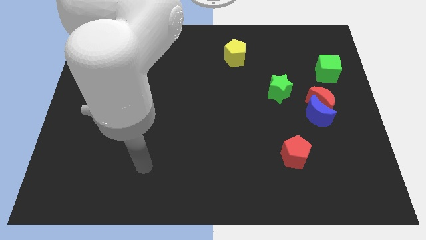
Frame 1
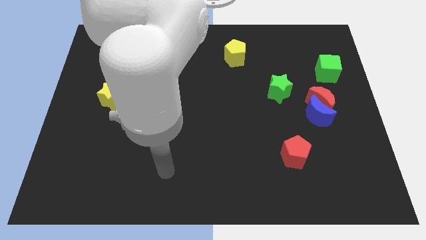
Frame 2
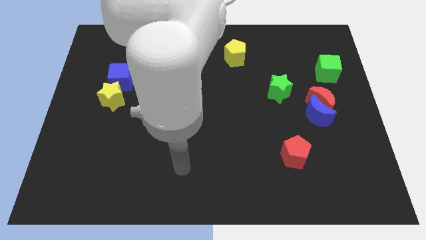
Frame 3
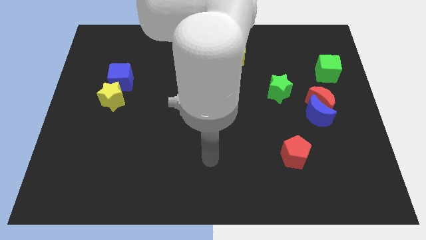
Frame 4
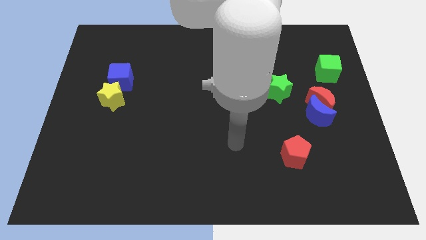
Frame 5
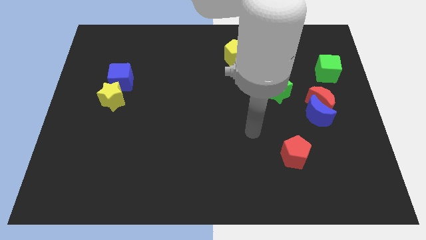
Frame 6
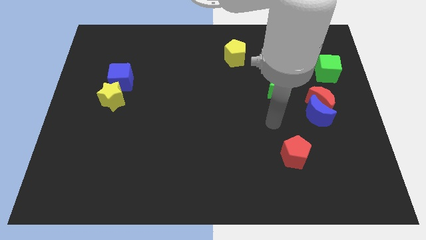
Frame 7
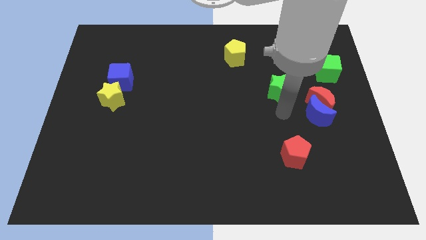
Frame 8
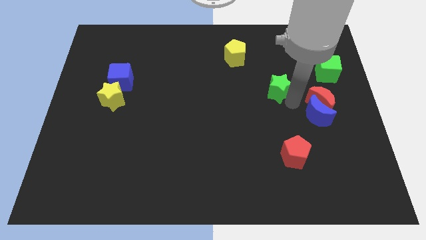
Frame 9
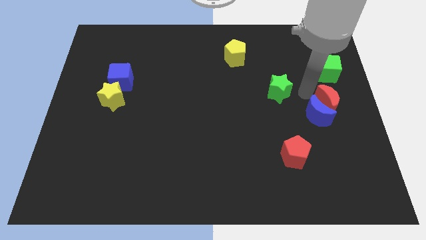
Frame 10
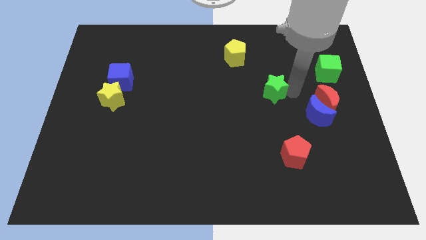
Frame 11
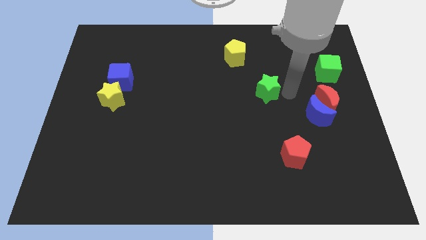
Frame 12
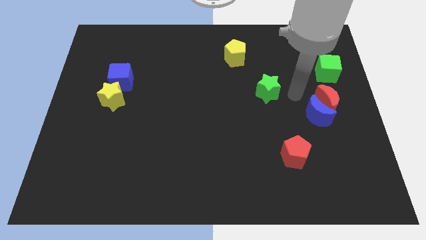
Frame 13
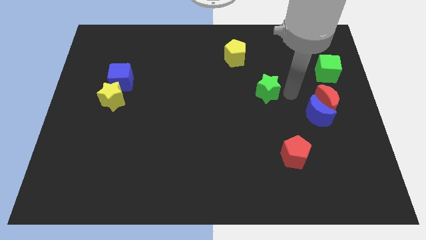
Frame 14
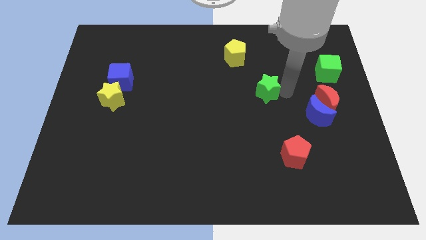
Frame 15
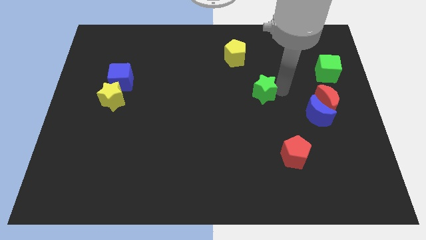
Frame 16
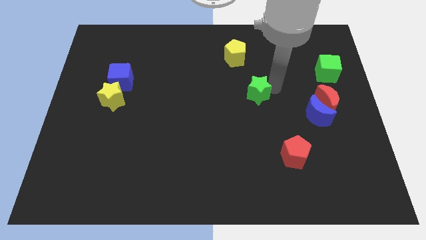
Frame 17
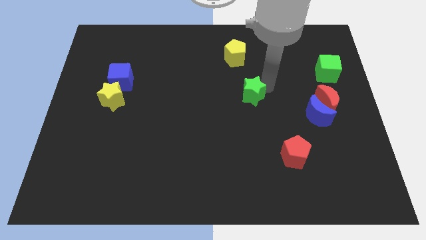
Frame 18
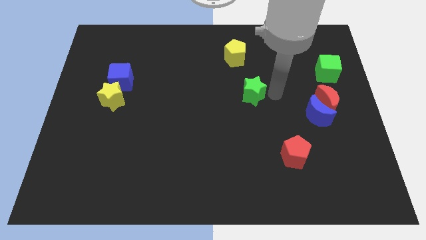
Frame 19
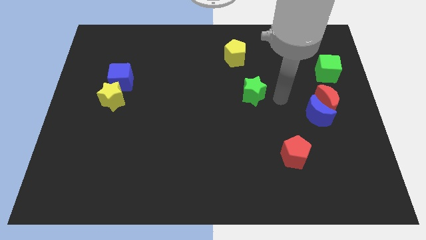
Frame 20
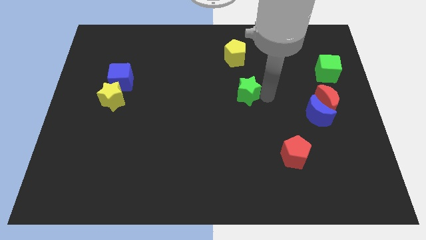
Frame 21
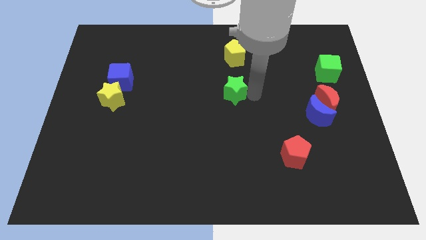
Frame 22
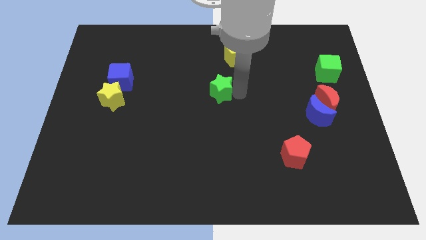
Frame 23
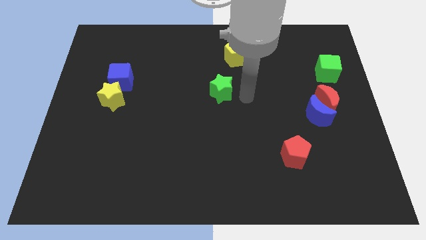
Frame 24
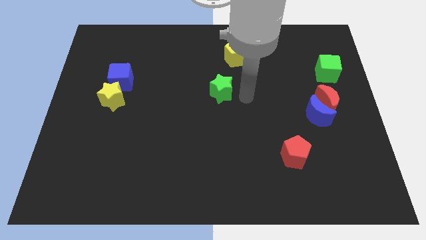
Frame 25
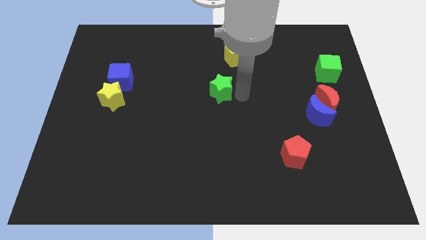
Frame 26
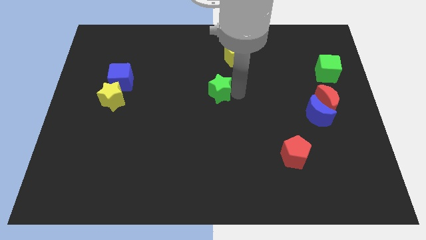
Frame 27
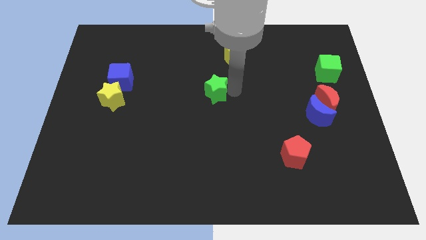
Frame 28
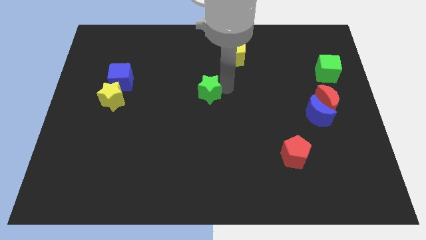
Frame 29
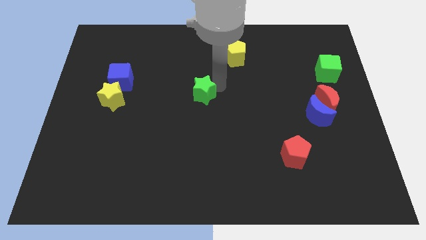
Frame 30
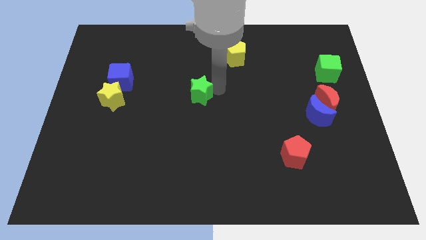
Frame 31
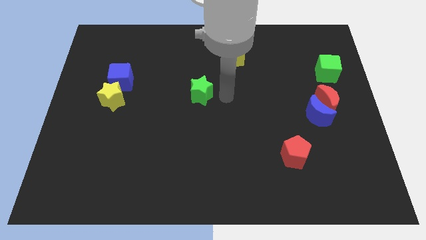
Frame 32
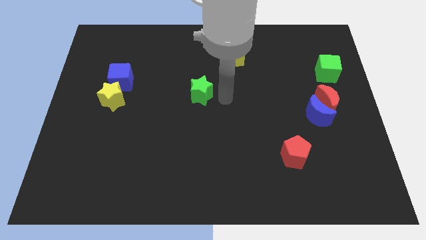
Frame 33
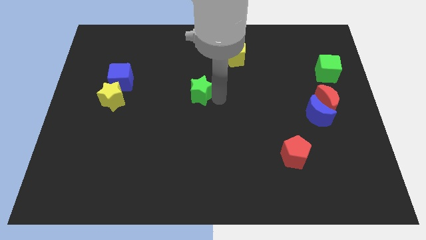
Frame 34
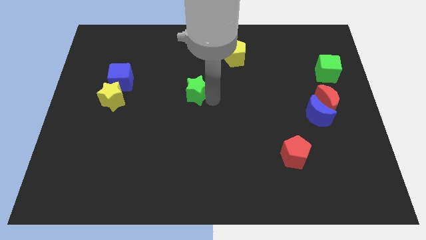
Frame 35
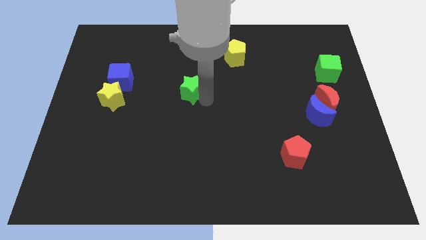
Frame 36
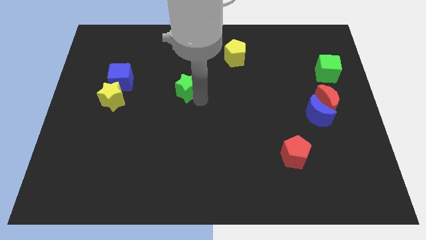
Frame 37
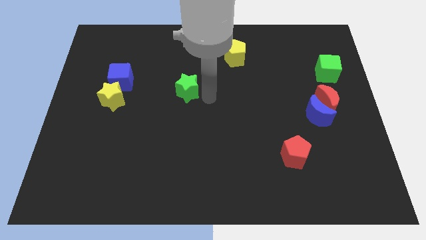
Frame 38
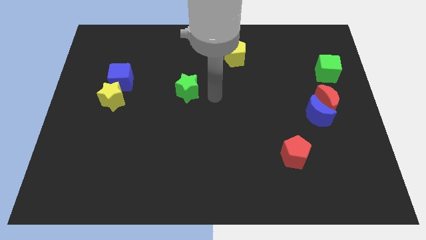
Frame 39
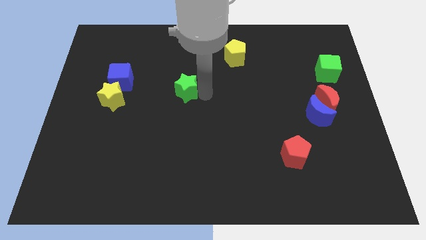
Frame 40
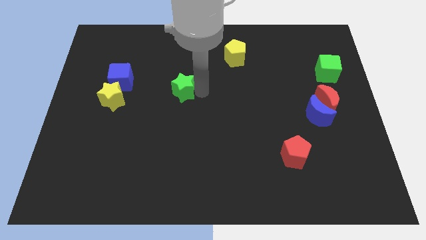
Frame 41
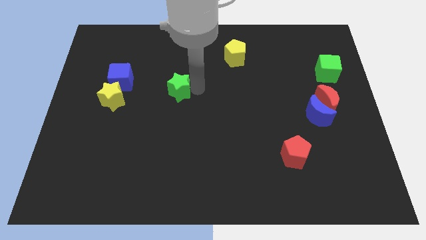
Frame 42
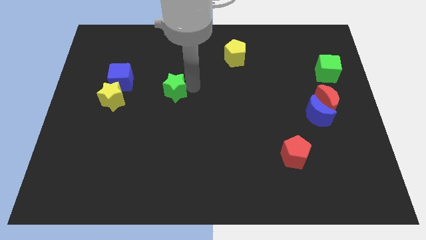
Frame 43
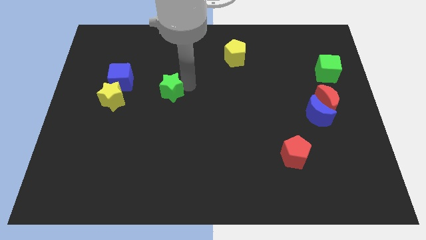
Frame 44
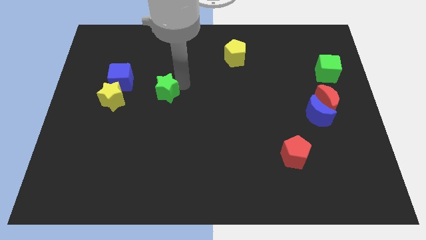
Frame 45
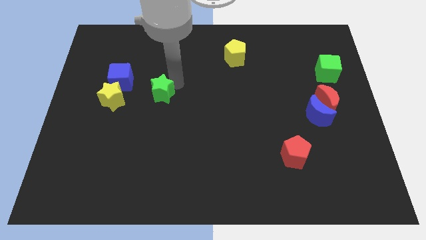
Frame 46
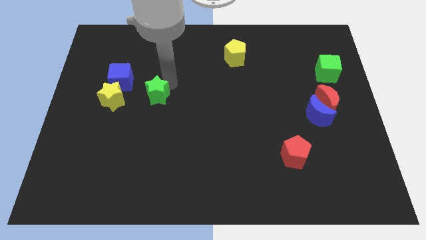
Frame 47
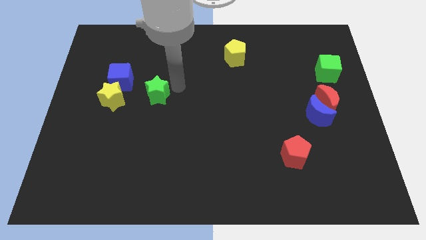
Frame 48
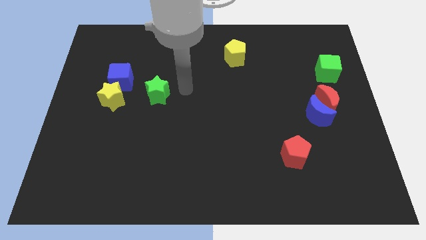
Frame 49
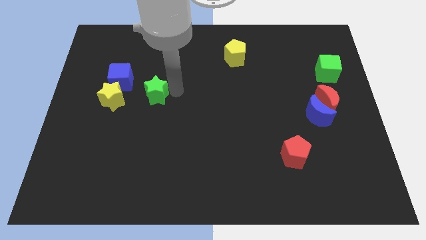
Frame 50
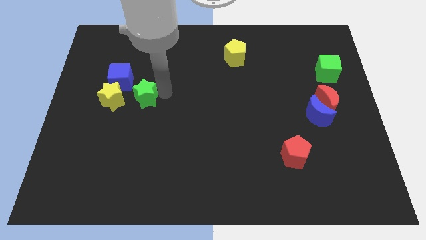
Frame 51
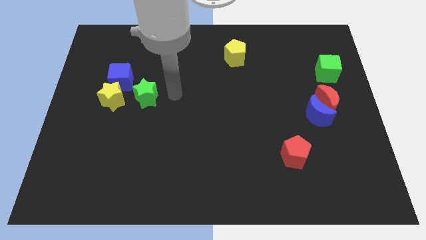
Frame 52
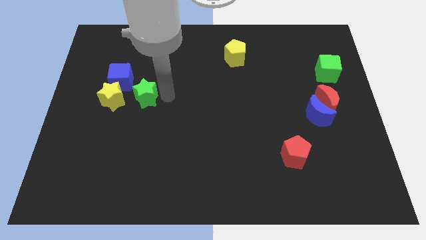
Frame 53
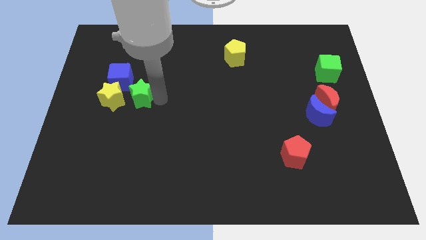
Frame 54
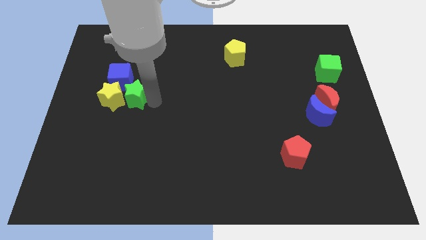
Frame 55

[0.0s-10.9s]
move the green star close to the yellow star

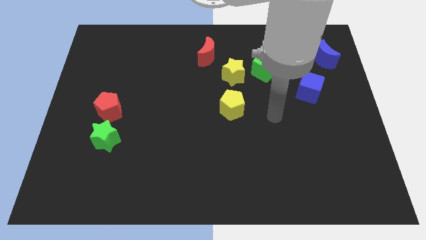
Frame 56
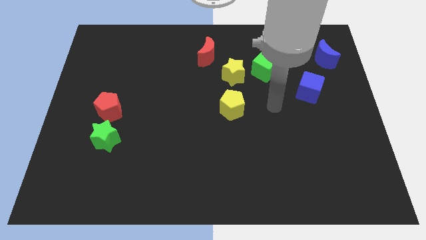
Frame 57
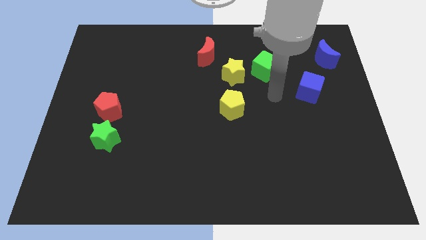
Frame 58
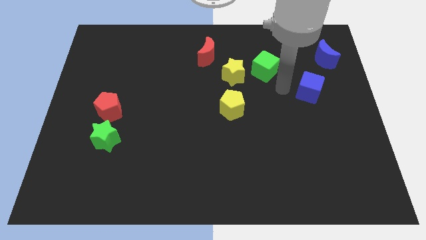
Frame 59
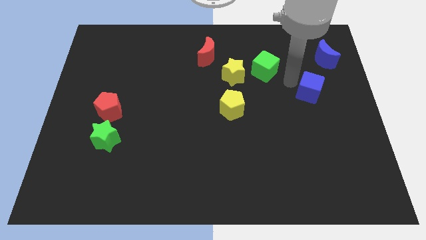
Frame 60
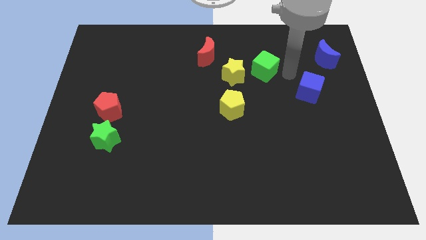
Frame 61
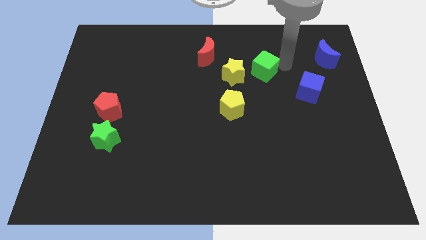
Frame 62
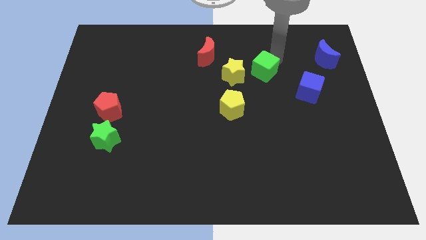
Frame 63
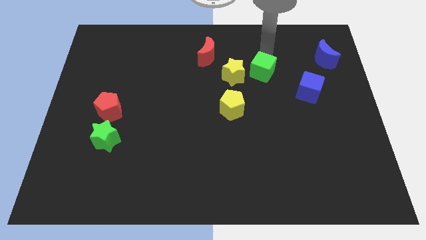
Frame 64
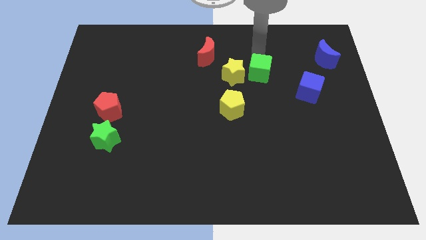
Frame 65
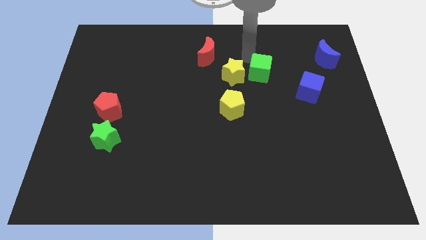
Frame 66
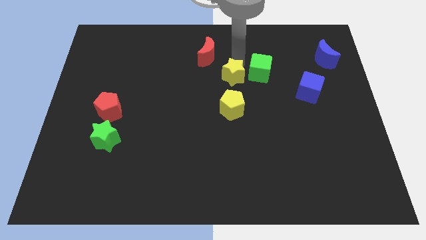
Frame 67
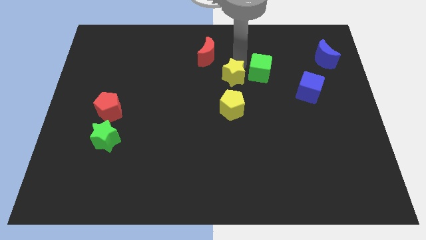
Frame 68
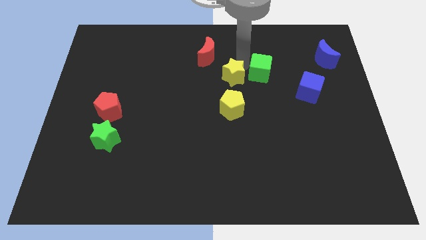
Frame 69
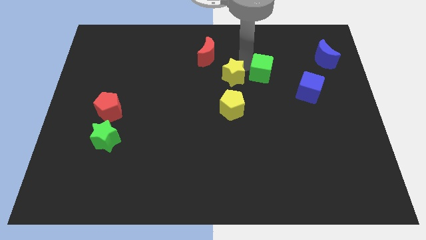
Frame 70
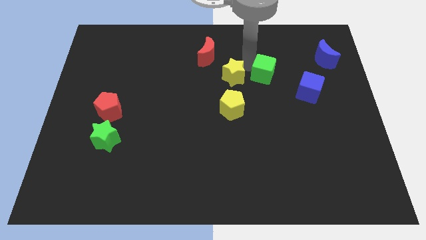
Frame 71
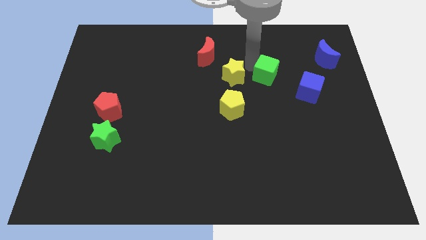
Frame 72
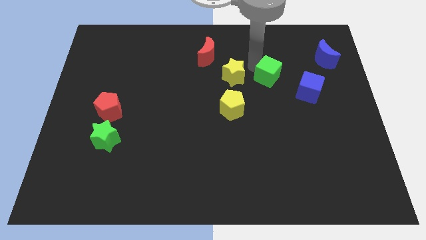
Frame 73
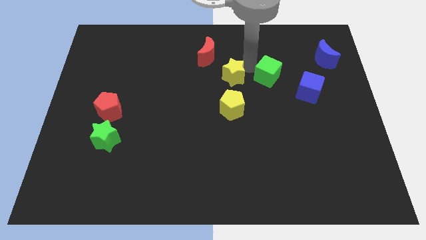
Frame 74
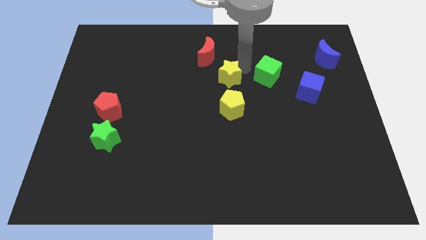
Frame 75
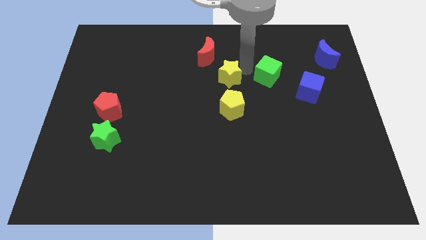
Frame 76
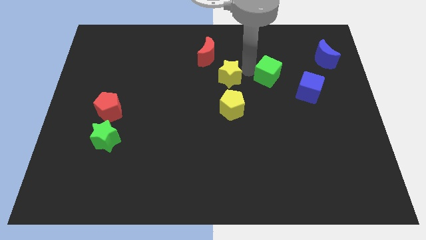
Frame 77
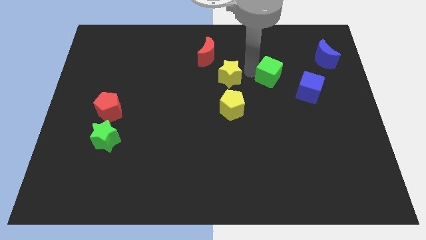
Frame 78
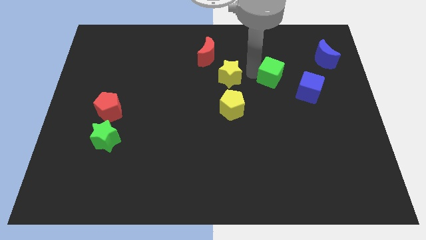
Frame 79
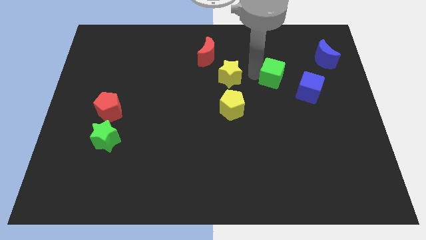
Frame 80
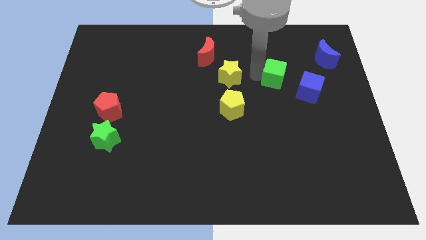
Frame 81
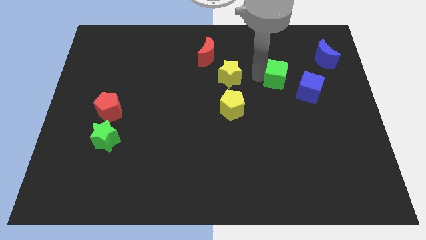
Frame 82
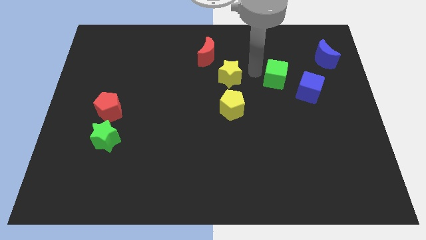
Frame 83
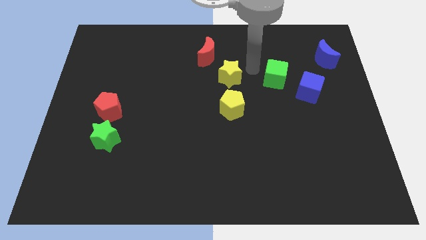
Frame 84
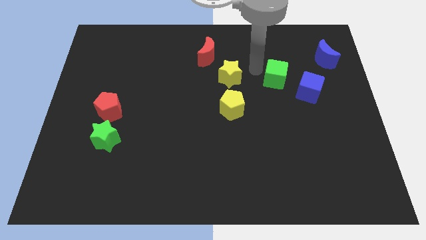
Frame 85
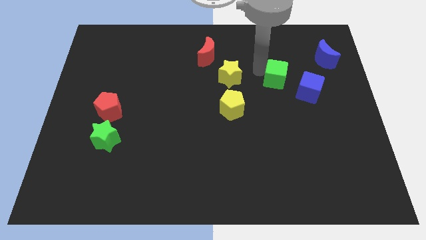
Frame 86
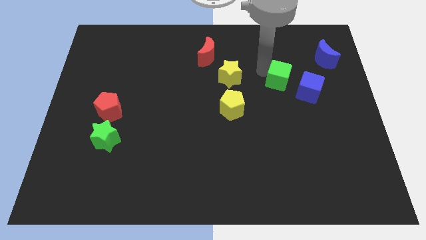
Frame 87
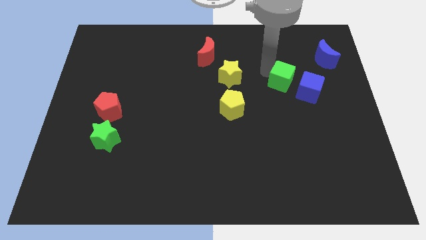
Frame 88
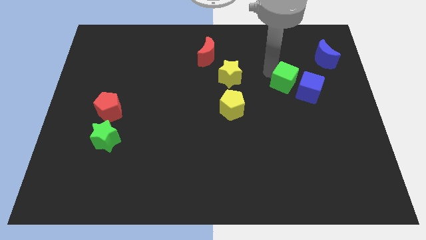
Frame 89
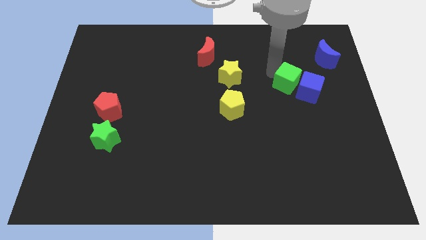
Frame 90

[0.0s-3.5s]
push the green cube to the blue cube
